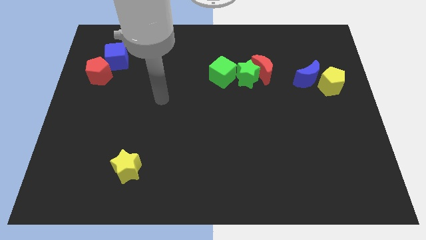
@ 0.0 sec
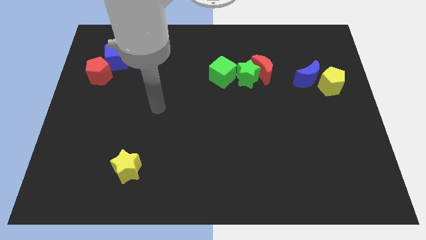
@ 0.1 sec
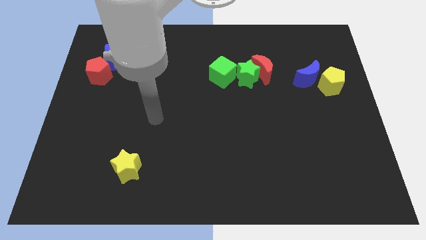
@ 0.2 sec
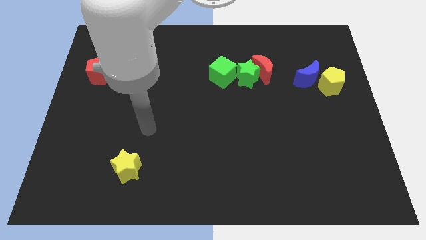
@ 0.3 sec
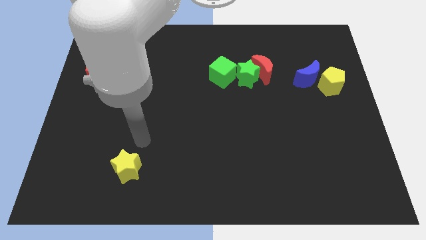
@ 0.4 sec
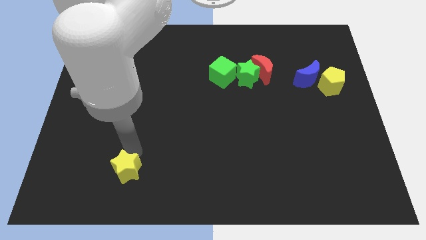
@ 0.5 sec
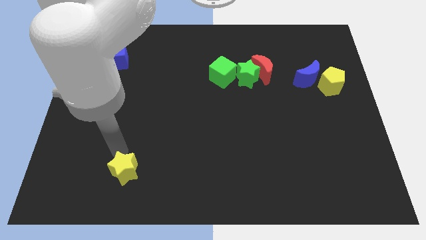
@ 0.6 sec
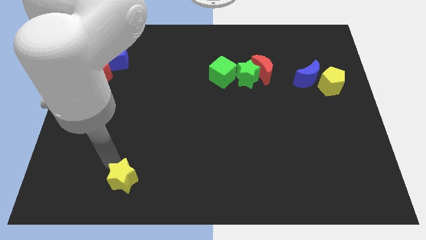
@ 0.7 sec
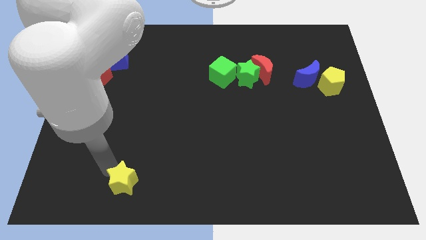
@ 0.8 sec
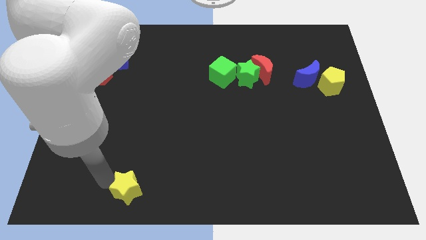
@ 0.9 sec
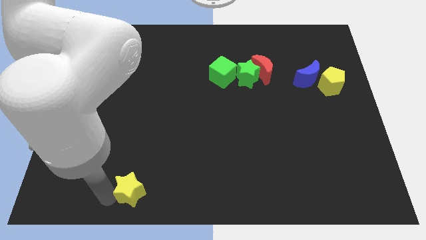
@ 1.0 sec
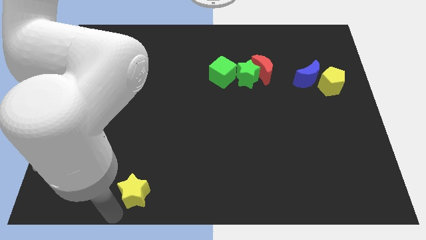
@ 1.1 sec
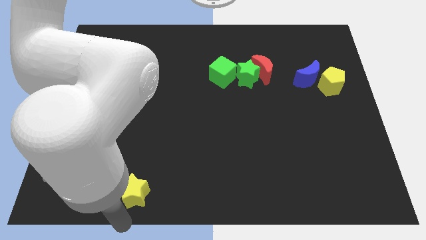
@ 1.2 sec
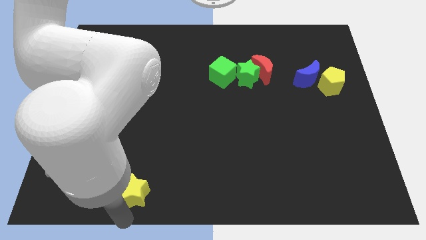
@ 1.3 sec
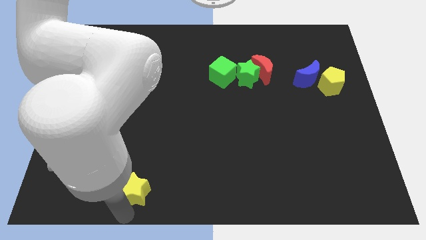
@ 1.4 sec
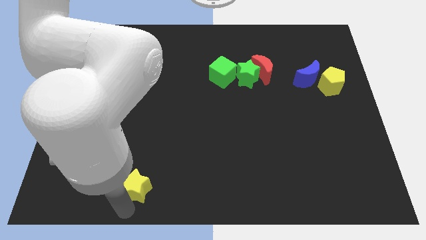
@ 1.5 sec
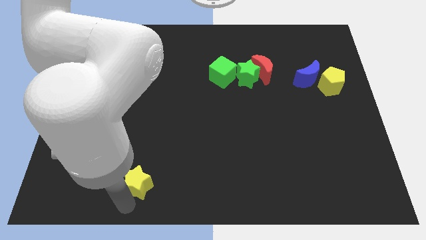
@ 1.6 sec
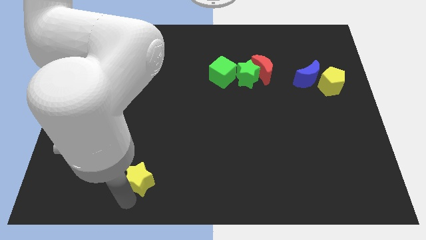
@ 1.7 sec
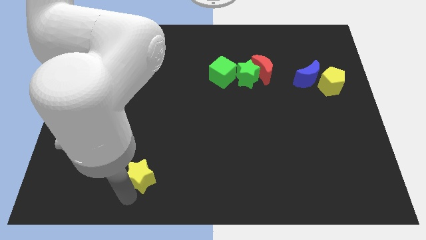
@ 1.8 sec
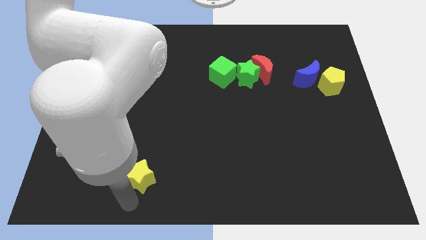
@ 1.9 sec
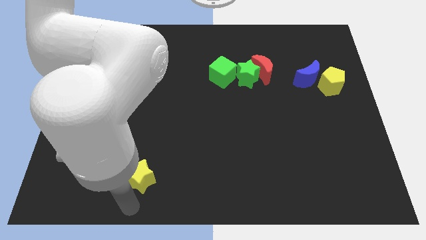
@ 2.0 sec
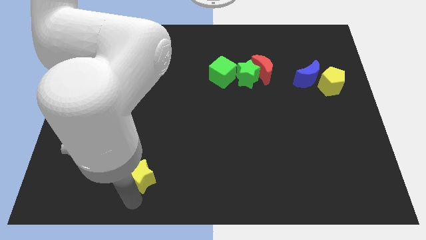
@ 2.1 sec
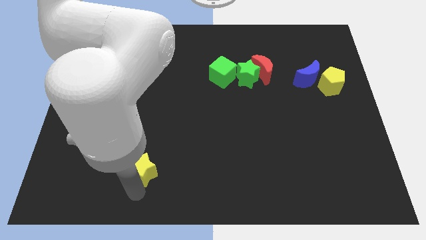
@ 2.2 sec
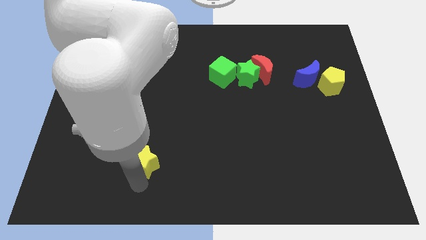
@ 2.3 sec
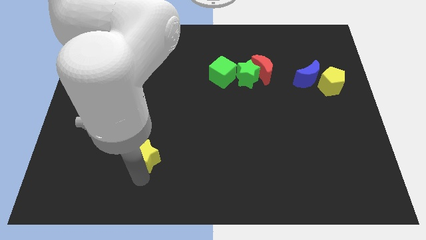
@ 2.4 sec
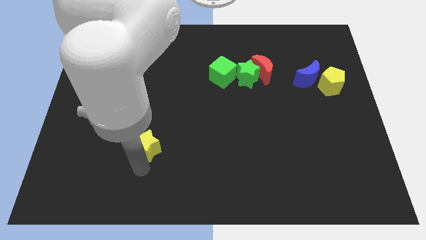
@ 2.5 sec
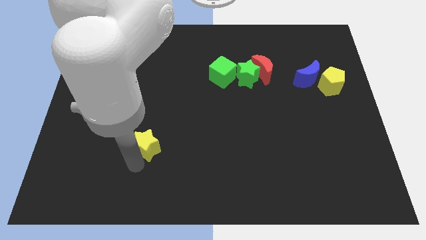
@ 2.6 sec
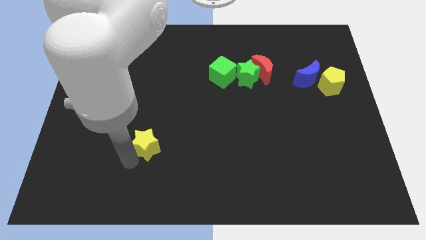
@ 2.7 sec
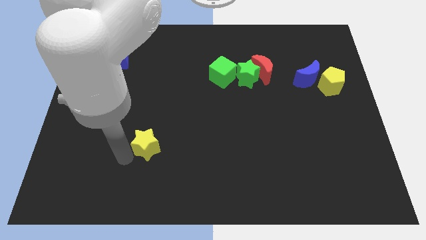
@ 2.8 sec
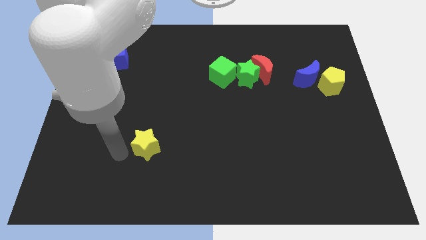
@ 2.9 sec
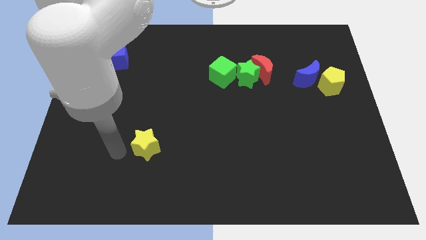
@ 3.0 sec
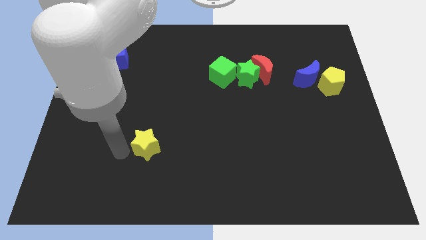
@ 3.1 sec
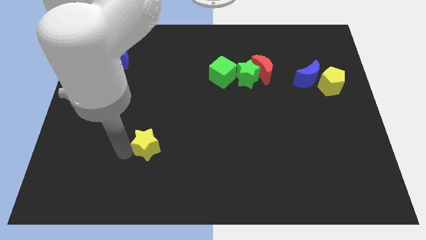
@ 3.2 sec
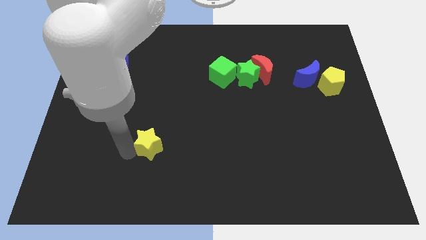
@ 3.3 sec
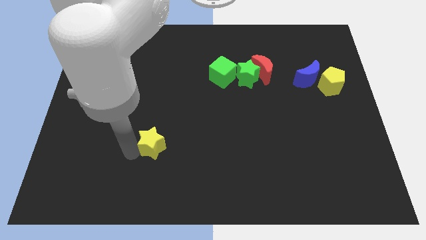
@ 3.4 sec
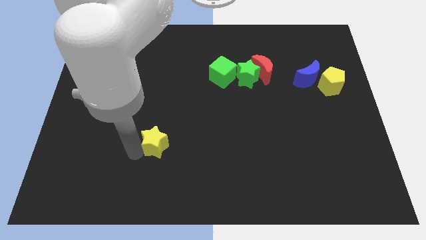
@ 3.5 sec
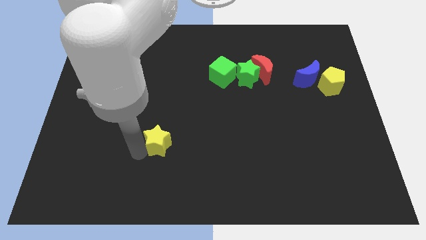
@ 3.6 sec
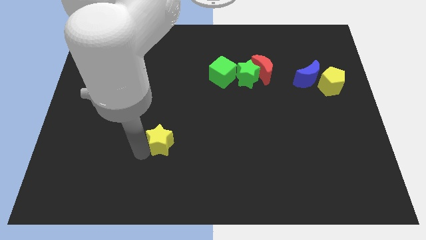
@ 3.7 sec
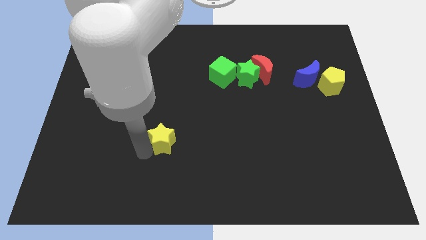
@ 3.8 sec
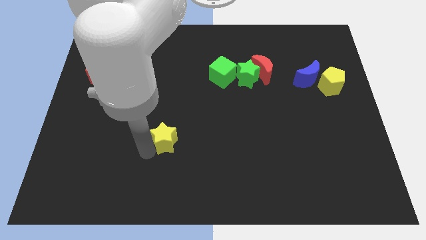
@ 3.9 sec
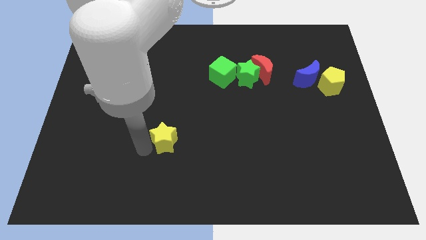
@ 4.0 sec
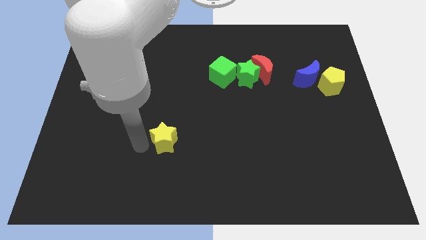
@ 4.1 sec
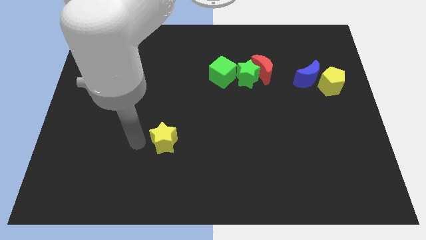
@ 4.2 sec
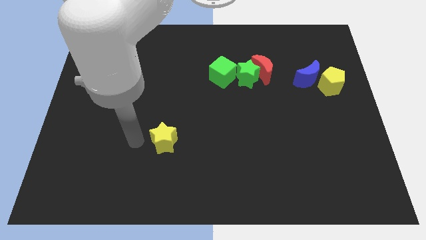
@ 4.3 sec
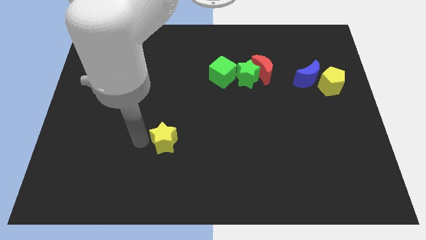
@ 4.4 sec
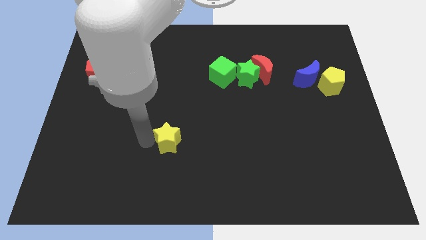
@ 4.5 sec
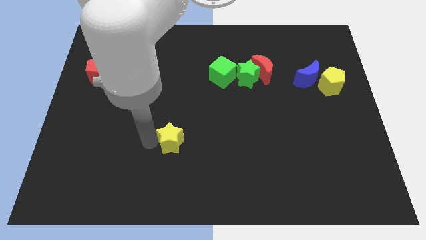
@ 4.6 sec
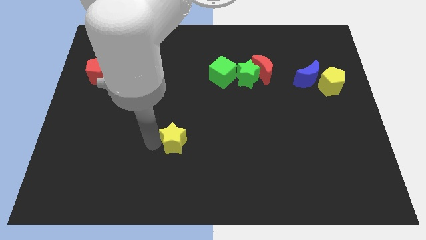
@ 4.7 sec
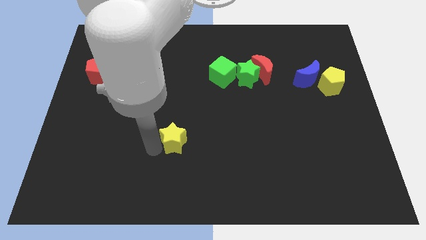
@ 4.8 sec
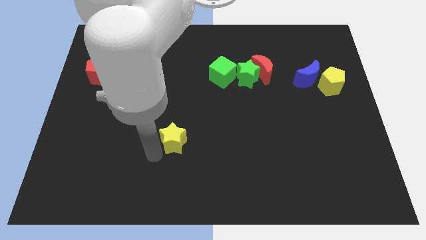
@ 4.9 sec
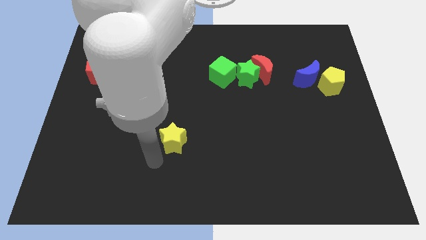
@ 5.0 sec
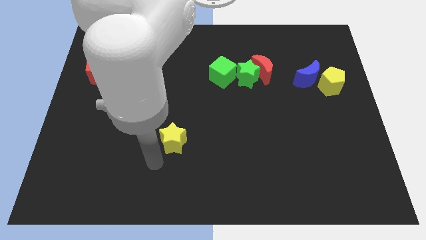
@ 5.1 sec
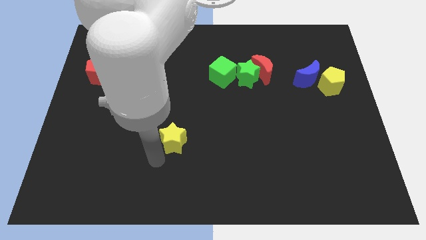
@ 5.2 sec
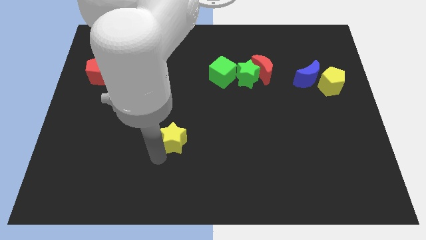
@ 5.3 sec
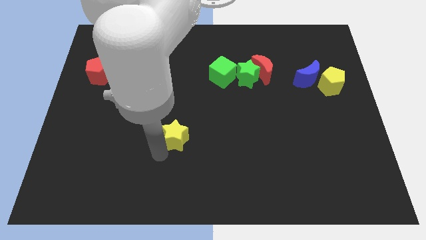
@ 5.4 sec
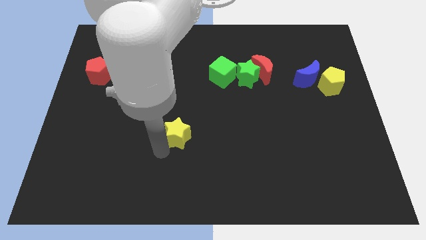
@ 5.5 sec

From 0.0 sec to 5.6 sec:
put the yellow star to the center
